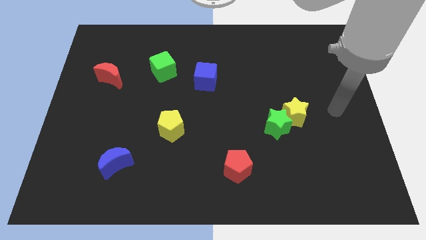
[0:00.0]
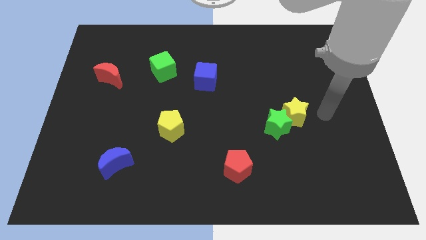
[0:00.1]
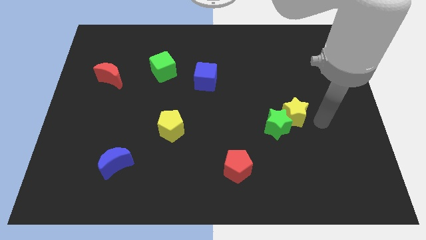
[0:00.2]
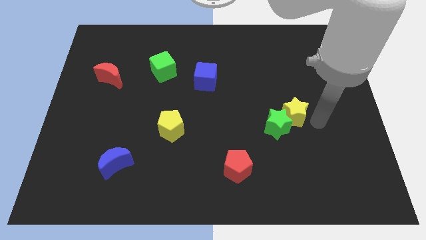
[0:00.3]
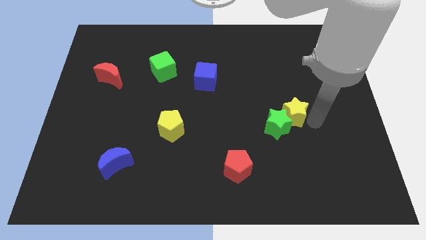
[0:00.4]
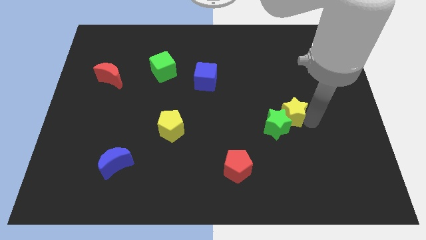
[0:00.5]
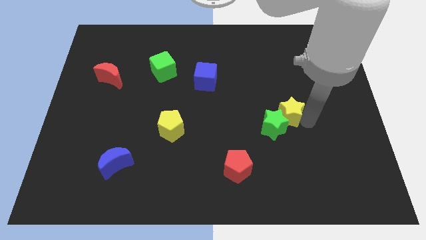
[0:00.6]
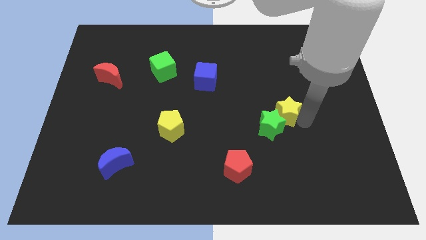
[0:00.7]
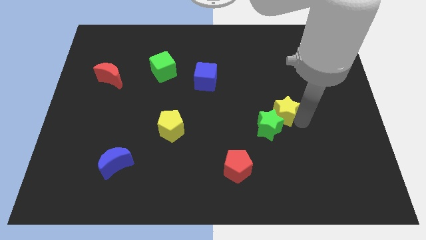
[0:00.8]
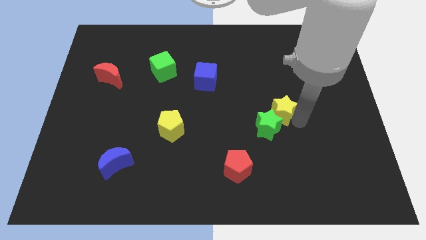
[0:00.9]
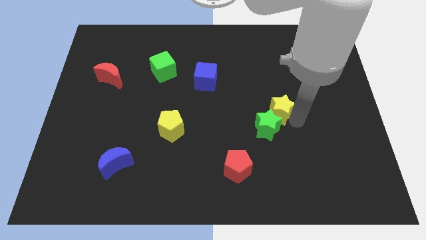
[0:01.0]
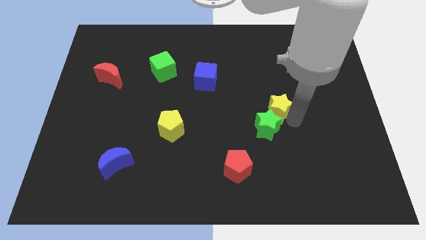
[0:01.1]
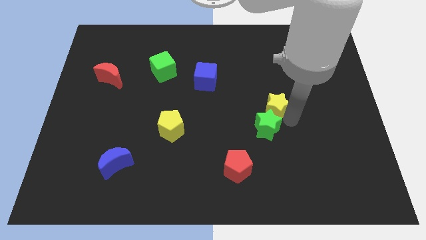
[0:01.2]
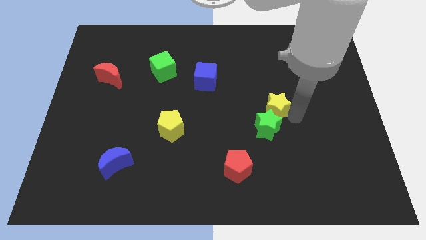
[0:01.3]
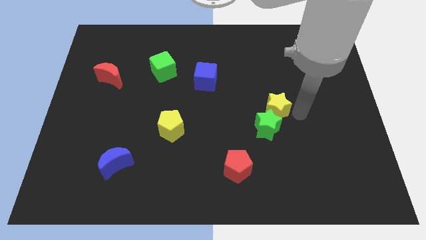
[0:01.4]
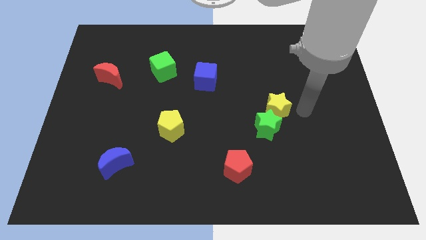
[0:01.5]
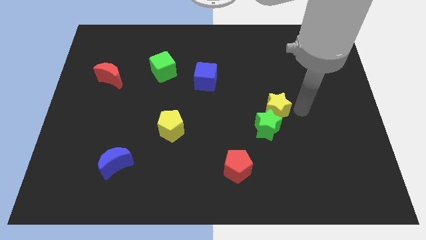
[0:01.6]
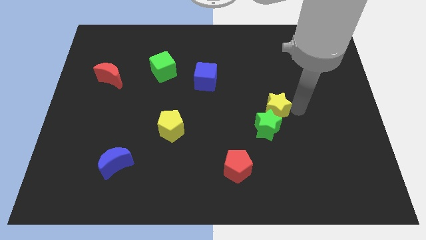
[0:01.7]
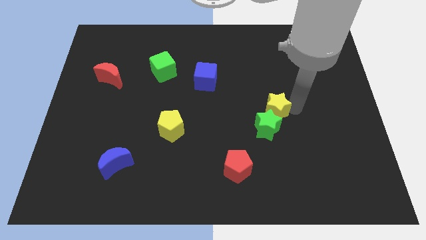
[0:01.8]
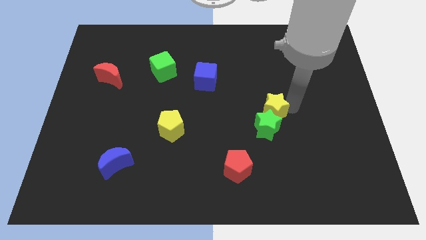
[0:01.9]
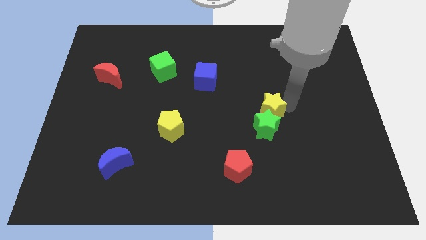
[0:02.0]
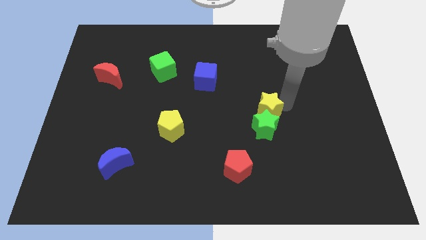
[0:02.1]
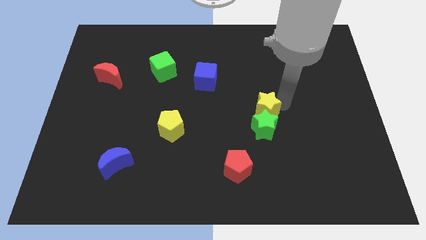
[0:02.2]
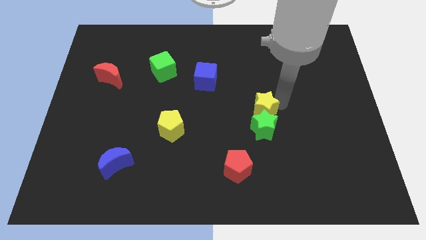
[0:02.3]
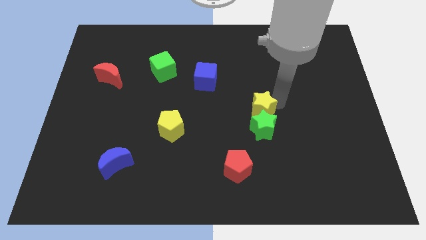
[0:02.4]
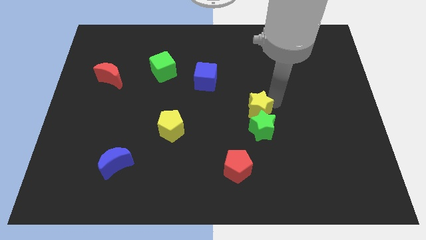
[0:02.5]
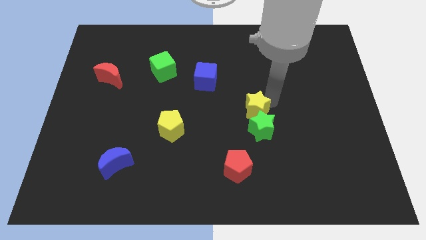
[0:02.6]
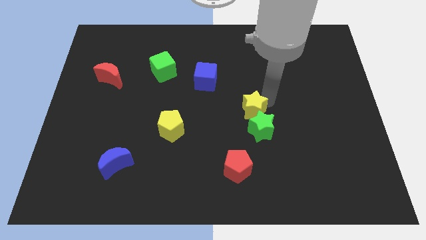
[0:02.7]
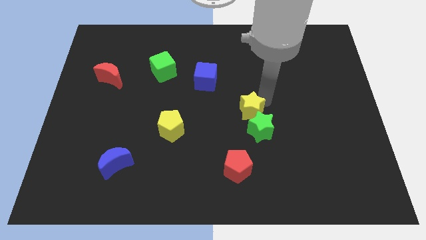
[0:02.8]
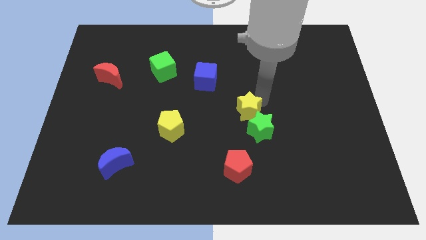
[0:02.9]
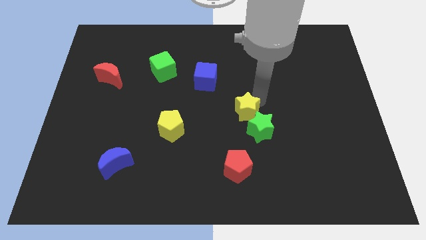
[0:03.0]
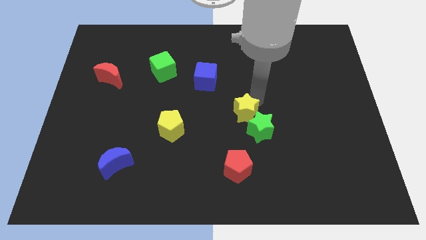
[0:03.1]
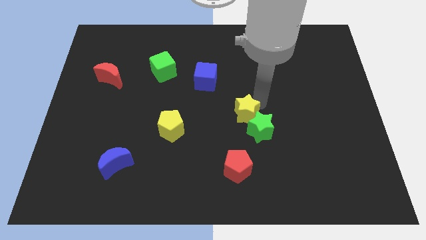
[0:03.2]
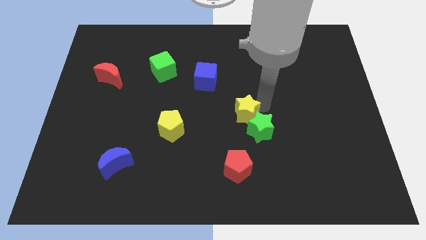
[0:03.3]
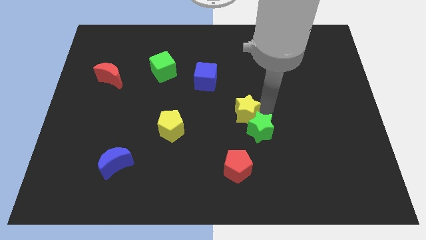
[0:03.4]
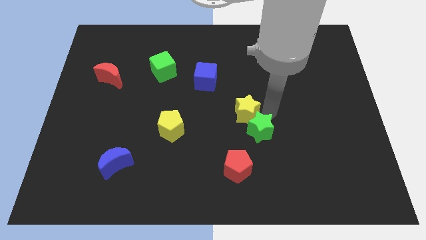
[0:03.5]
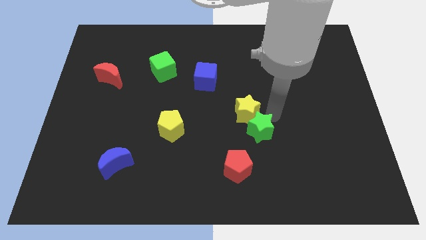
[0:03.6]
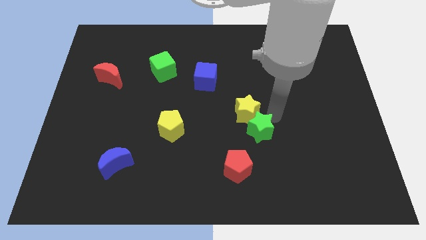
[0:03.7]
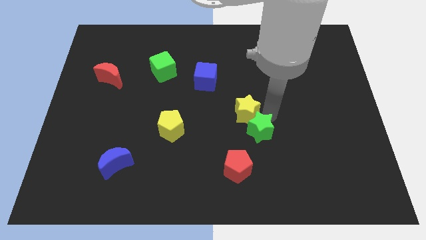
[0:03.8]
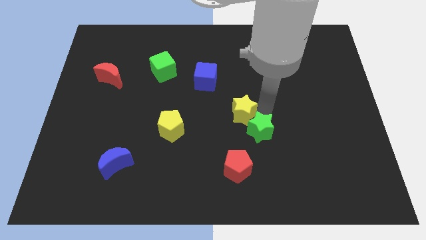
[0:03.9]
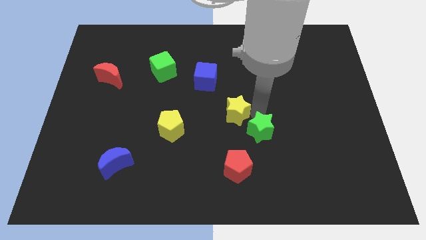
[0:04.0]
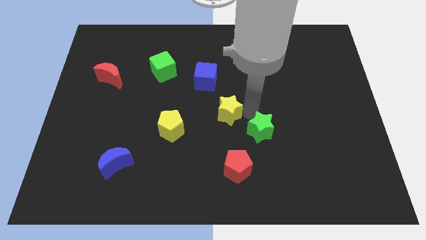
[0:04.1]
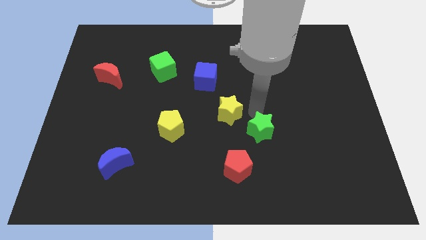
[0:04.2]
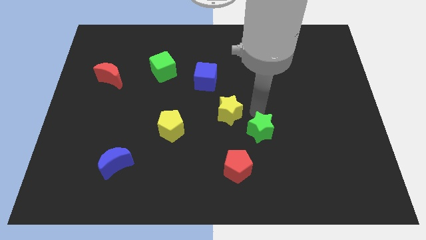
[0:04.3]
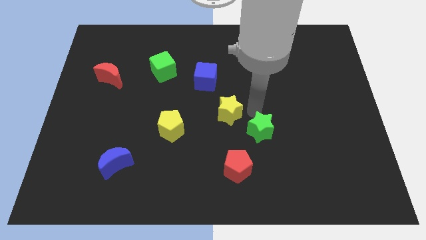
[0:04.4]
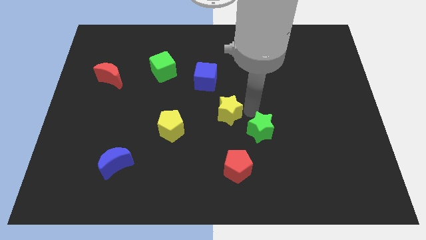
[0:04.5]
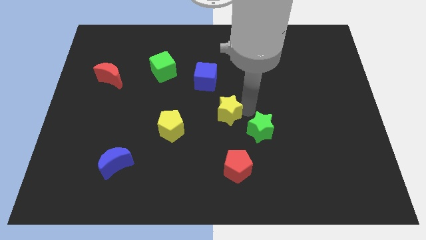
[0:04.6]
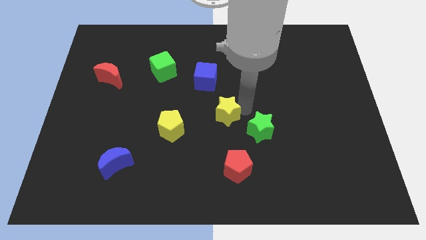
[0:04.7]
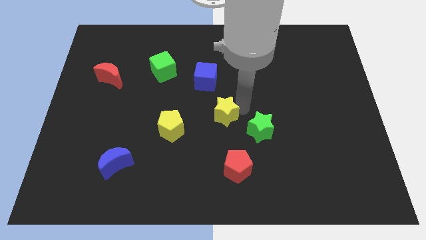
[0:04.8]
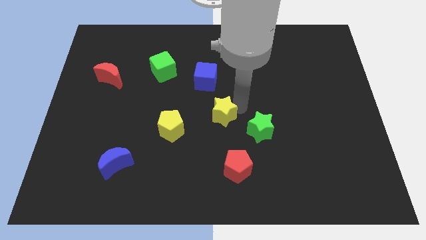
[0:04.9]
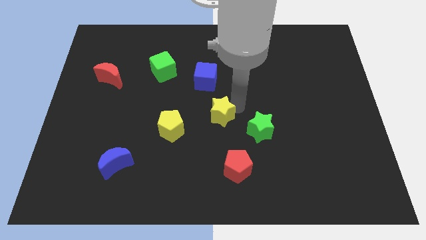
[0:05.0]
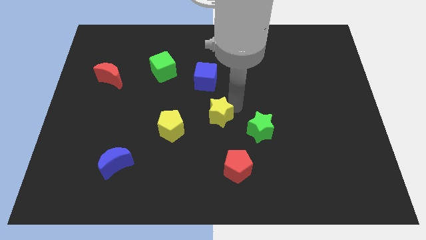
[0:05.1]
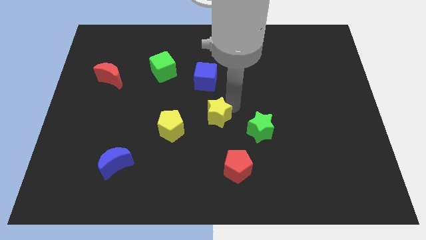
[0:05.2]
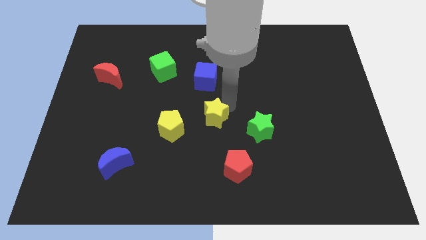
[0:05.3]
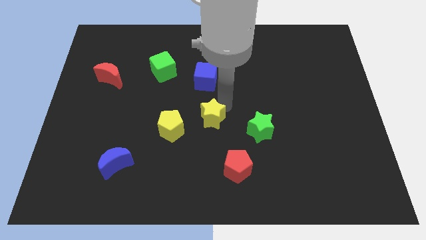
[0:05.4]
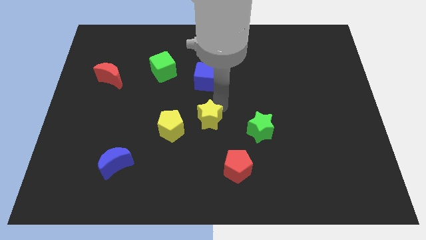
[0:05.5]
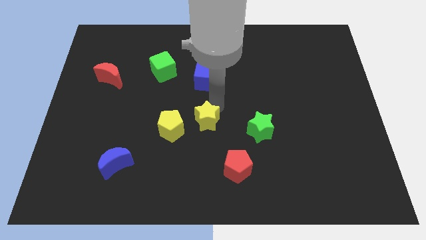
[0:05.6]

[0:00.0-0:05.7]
move the yellow star to the left

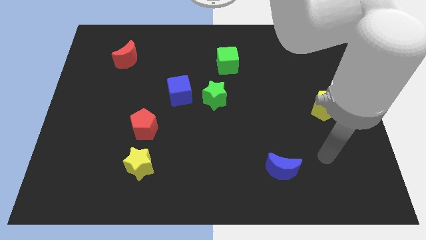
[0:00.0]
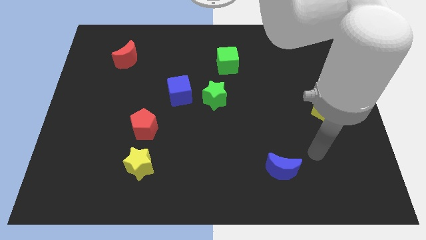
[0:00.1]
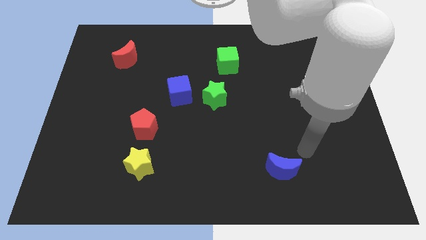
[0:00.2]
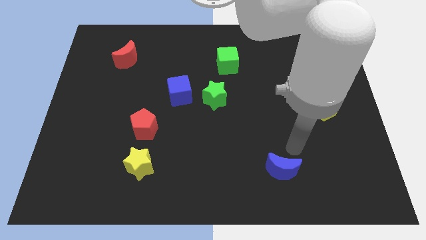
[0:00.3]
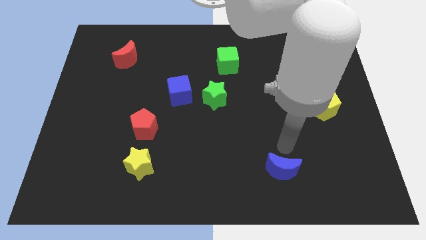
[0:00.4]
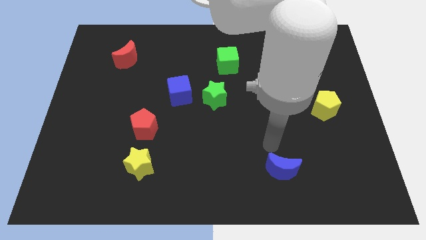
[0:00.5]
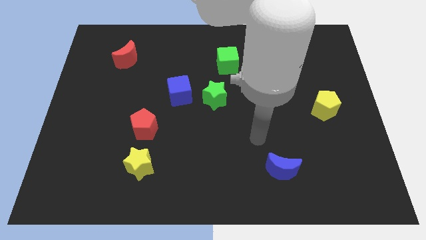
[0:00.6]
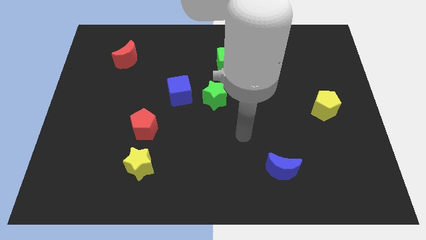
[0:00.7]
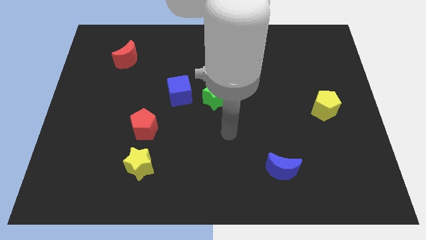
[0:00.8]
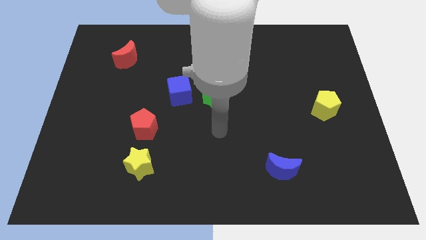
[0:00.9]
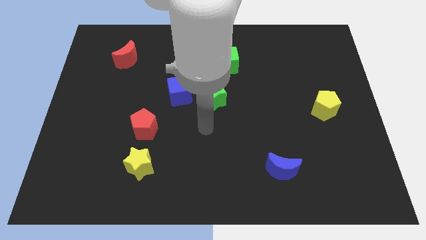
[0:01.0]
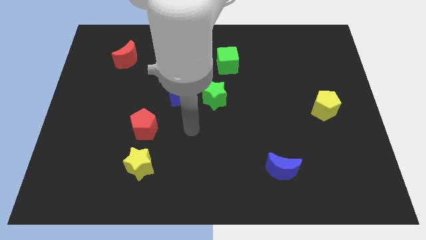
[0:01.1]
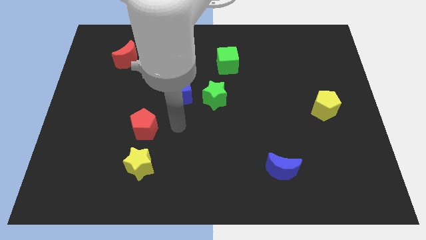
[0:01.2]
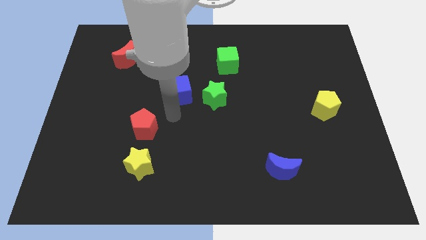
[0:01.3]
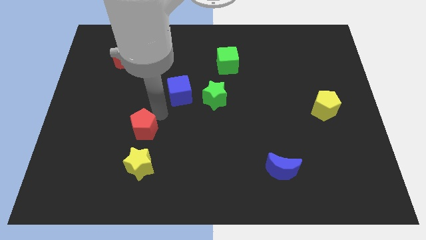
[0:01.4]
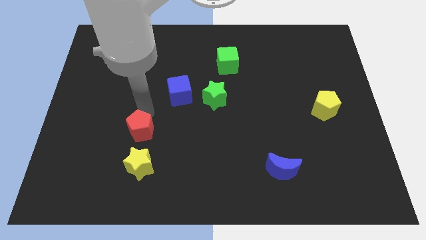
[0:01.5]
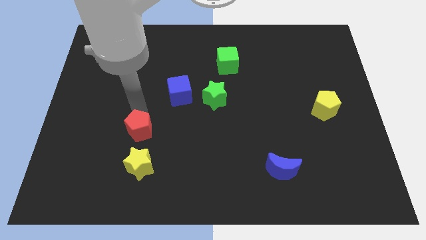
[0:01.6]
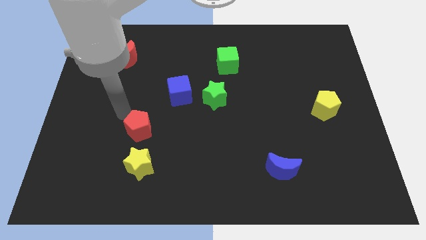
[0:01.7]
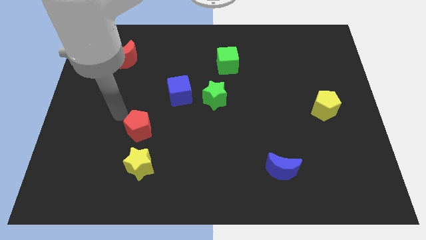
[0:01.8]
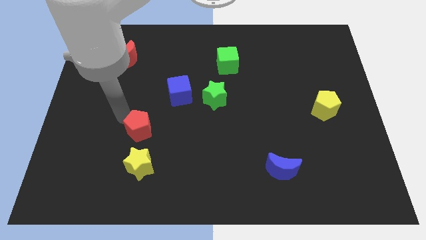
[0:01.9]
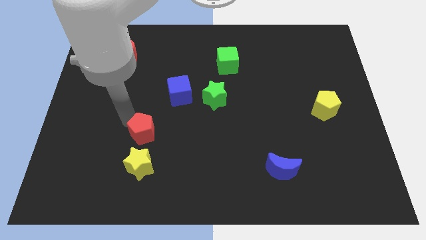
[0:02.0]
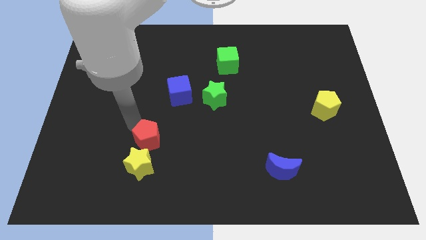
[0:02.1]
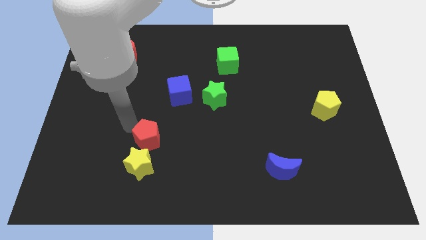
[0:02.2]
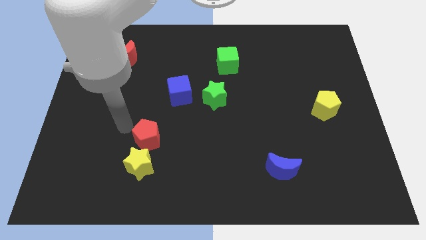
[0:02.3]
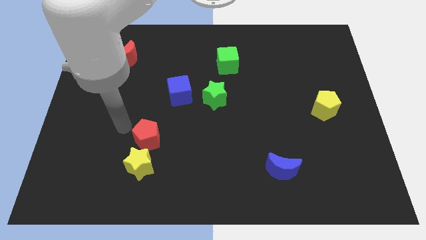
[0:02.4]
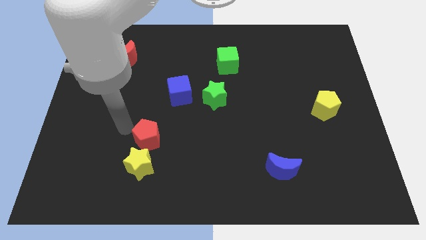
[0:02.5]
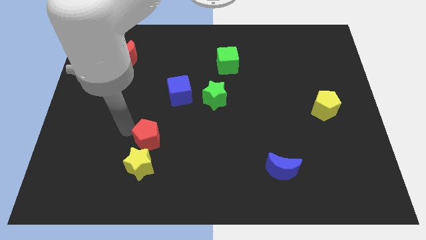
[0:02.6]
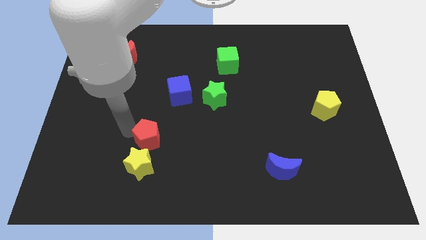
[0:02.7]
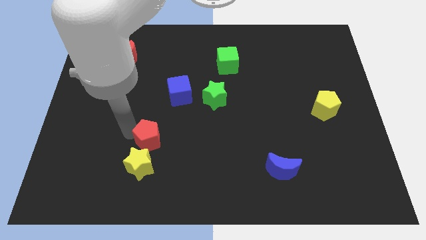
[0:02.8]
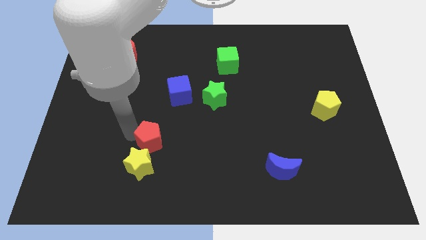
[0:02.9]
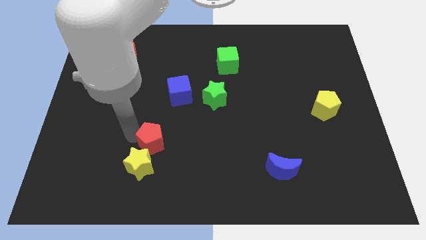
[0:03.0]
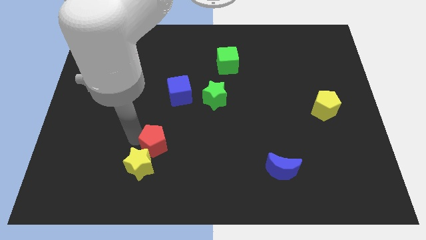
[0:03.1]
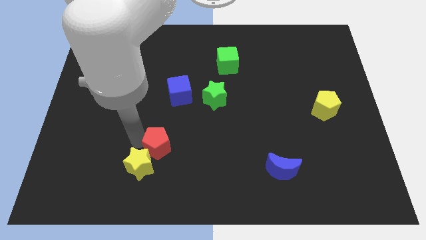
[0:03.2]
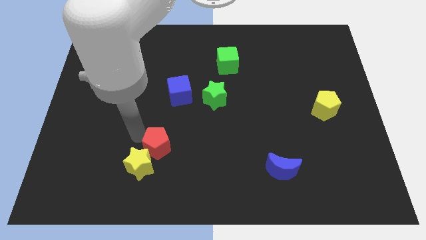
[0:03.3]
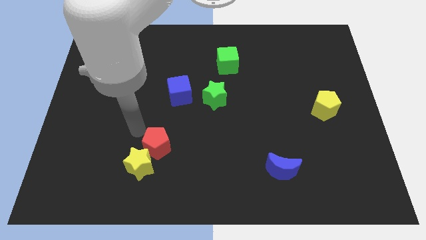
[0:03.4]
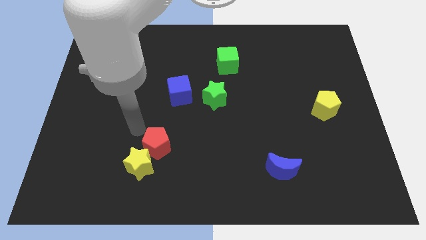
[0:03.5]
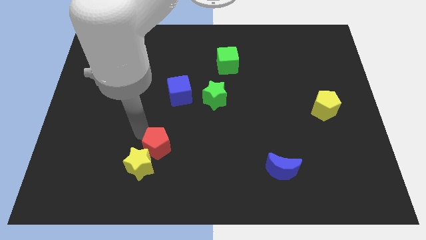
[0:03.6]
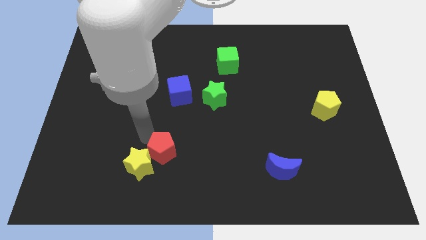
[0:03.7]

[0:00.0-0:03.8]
slightly slide the red pentagon down and then right
